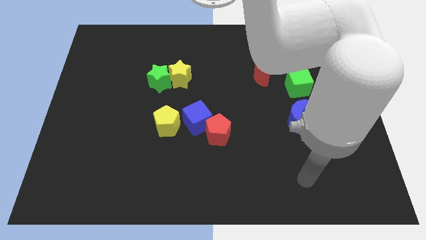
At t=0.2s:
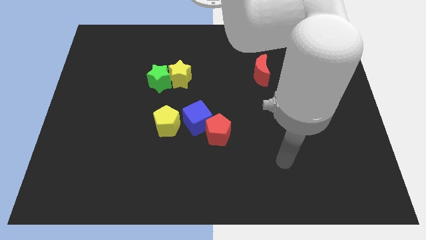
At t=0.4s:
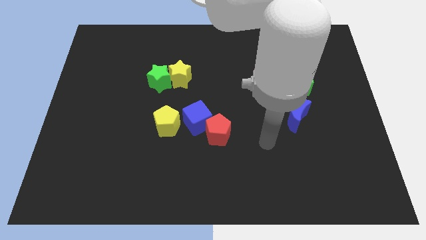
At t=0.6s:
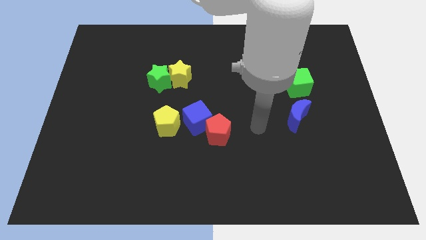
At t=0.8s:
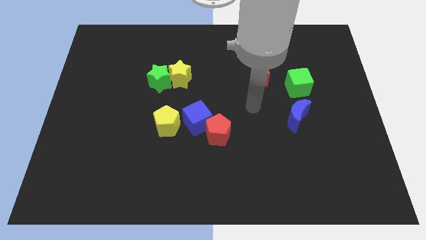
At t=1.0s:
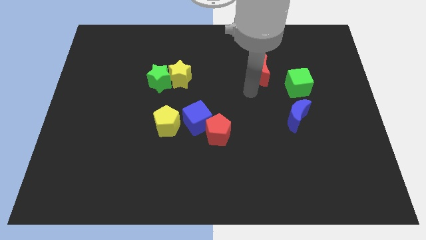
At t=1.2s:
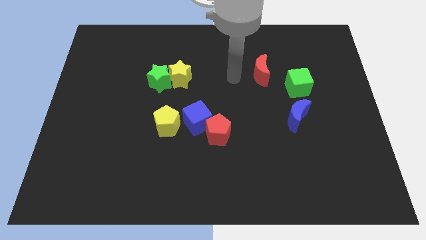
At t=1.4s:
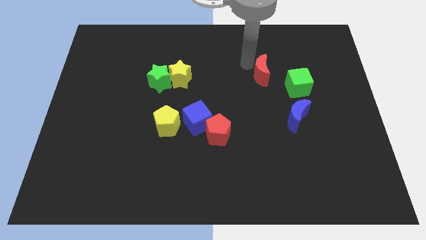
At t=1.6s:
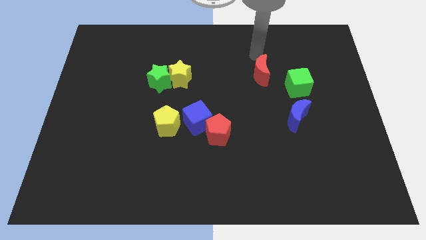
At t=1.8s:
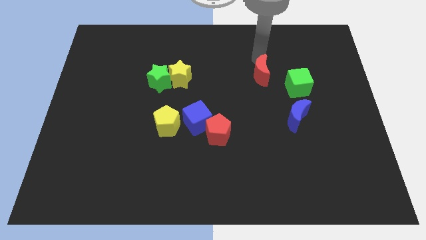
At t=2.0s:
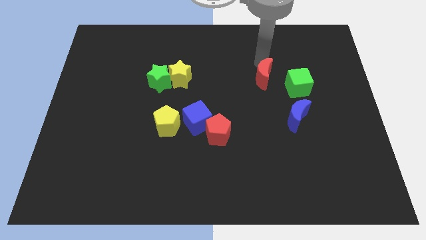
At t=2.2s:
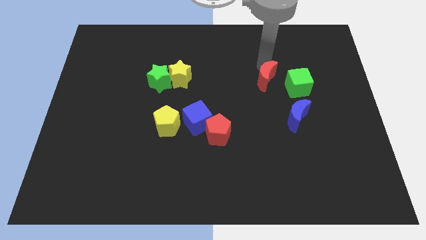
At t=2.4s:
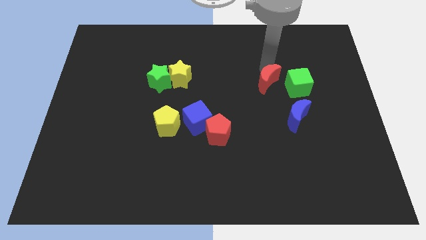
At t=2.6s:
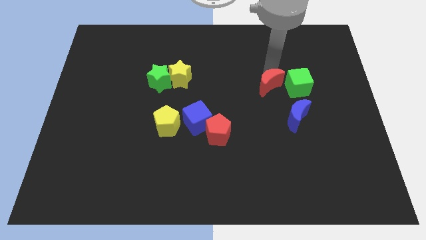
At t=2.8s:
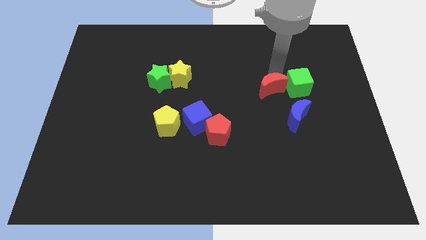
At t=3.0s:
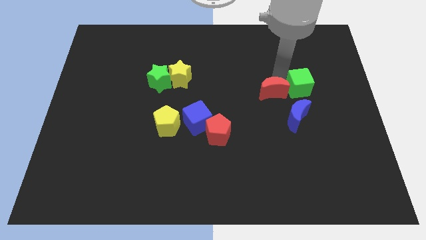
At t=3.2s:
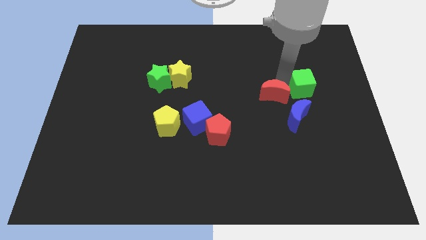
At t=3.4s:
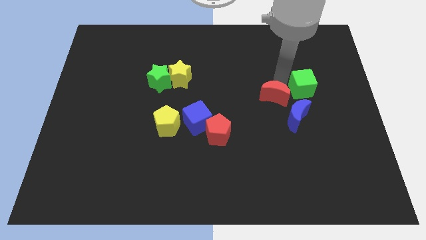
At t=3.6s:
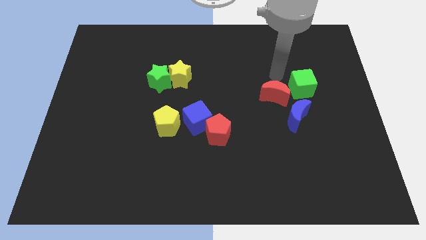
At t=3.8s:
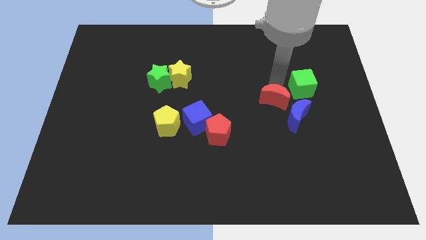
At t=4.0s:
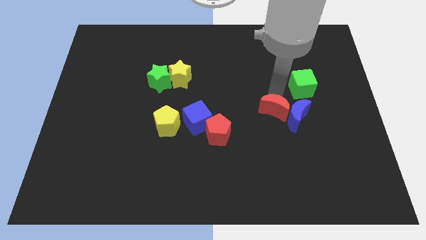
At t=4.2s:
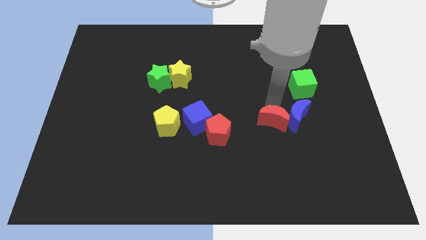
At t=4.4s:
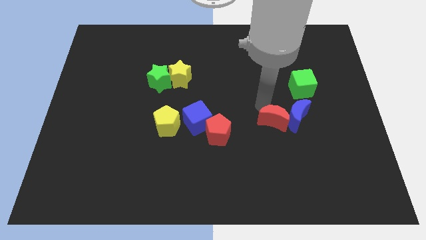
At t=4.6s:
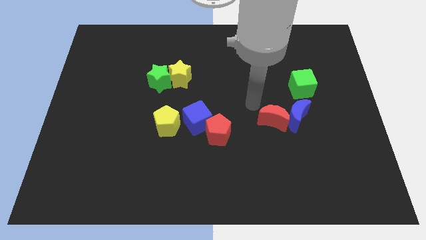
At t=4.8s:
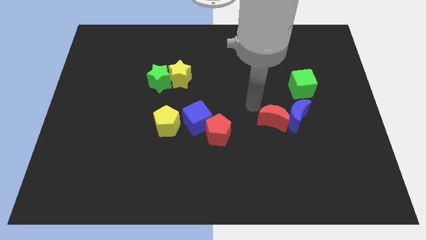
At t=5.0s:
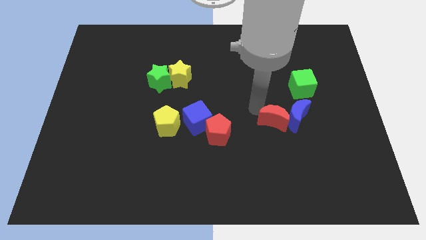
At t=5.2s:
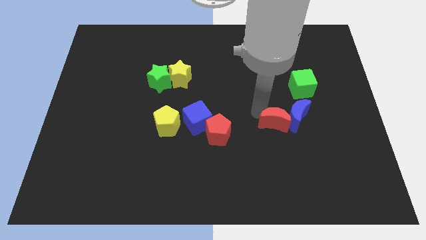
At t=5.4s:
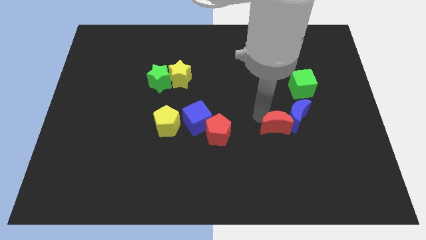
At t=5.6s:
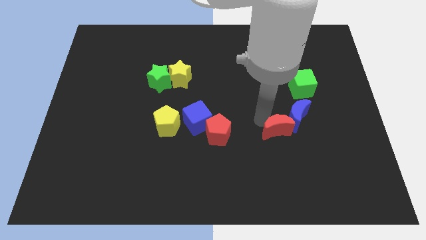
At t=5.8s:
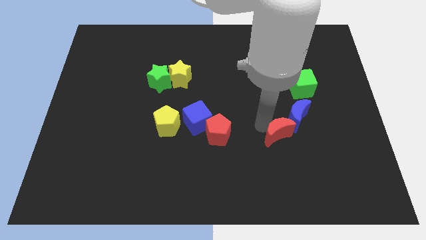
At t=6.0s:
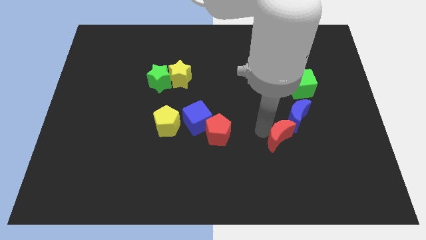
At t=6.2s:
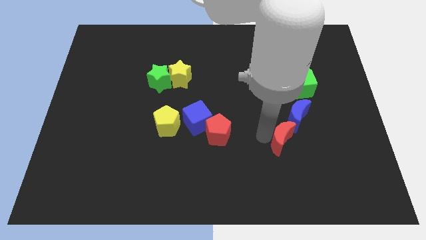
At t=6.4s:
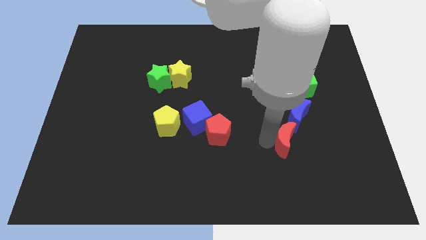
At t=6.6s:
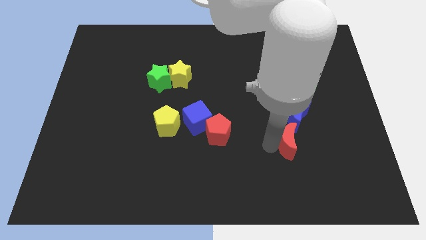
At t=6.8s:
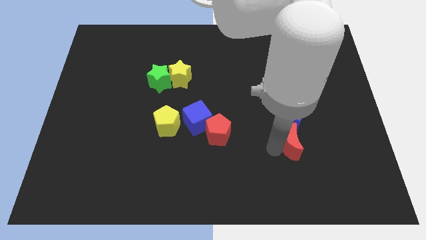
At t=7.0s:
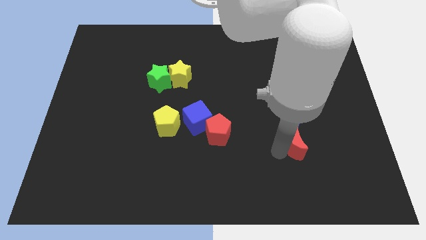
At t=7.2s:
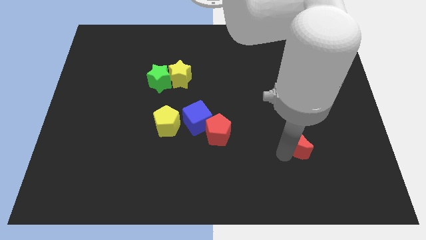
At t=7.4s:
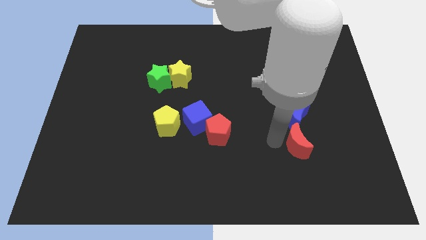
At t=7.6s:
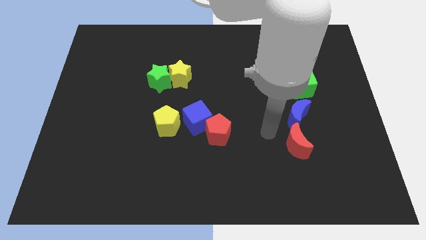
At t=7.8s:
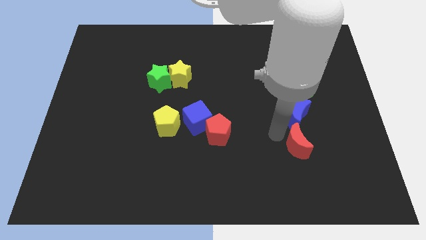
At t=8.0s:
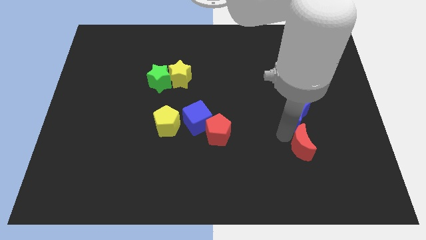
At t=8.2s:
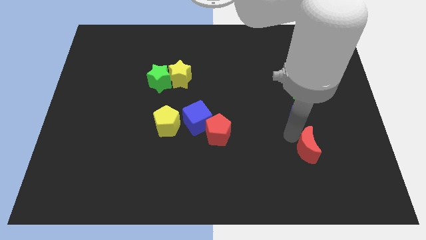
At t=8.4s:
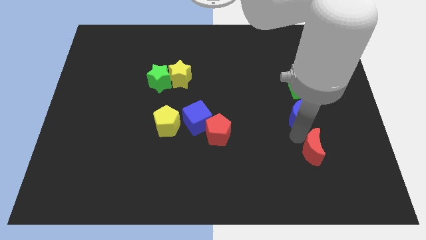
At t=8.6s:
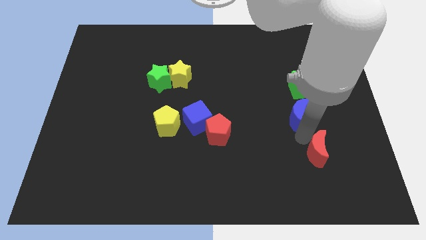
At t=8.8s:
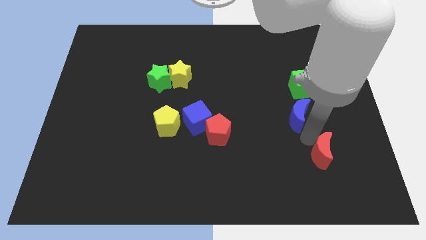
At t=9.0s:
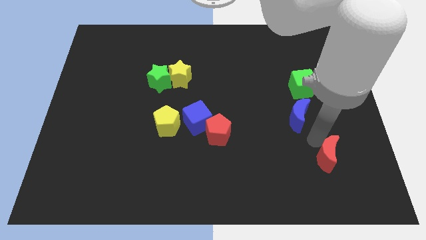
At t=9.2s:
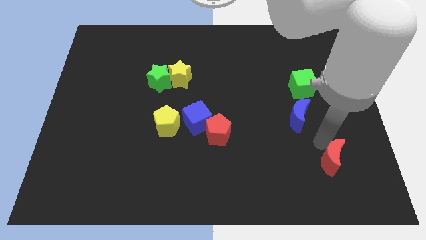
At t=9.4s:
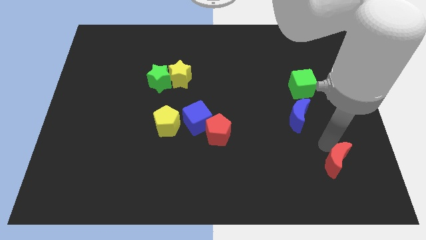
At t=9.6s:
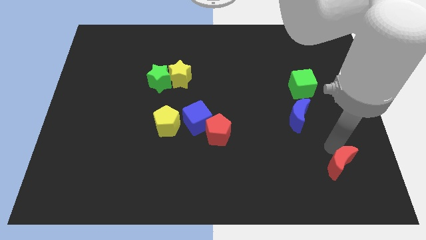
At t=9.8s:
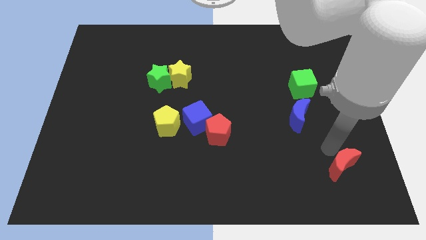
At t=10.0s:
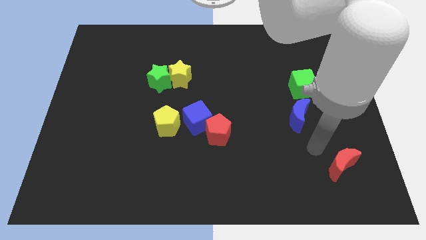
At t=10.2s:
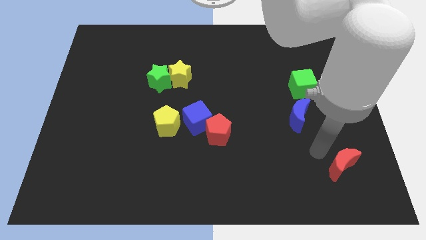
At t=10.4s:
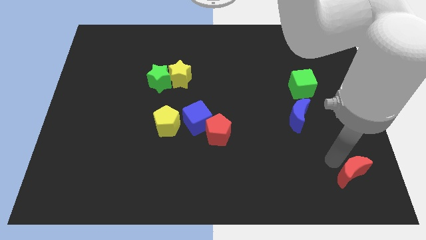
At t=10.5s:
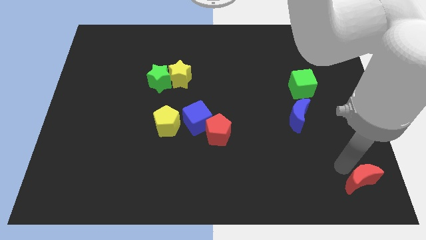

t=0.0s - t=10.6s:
push the red moon to the bottom right corner

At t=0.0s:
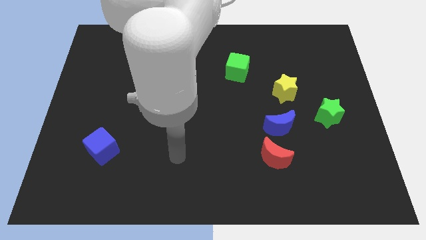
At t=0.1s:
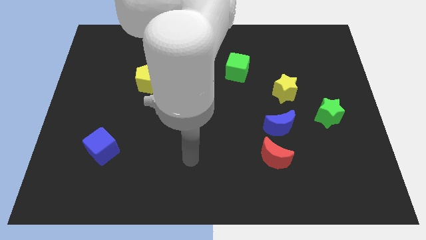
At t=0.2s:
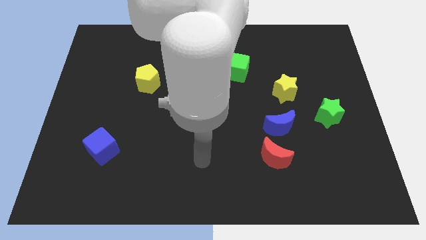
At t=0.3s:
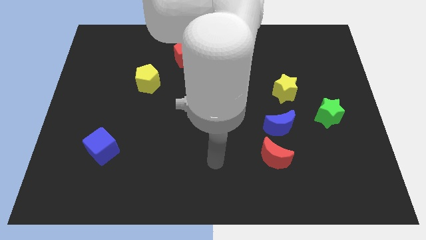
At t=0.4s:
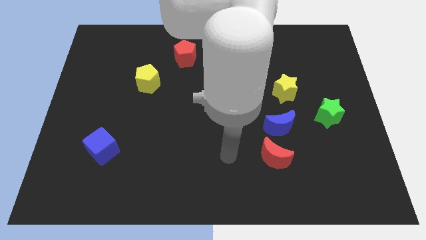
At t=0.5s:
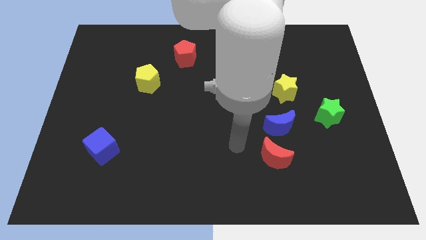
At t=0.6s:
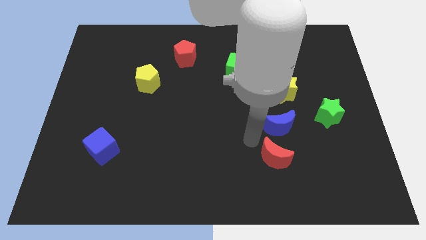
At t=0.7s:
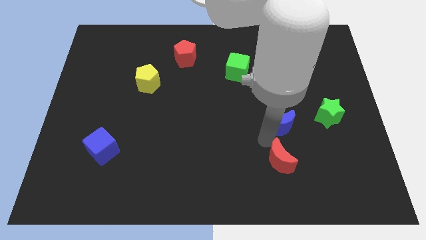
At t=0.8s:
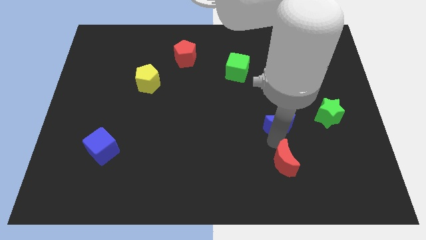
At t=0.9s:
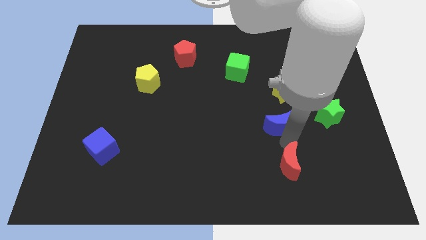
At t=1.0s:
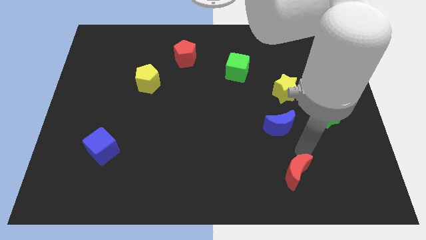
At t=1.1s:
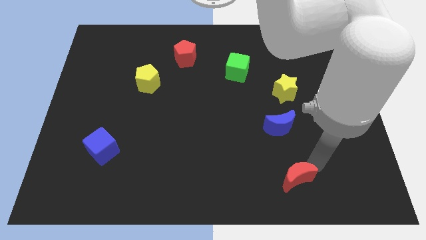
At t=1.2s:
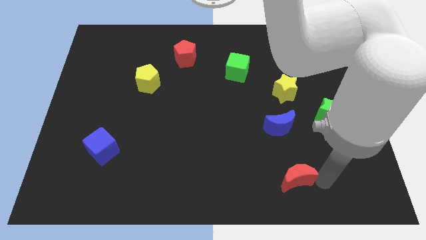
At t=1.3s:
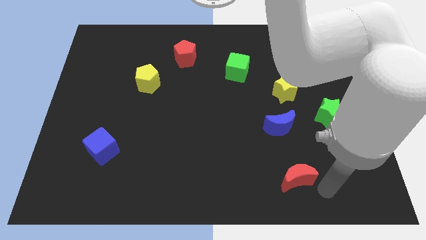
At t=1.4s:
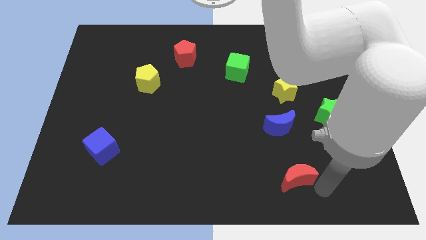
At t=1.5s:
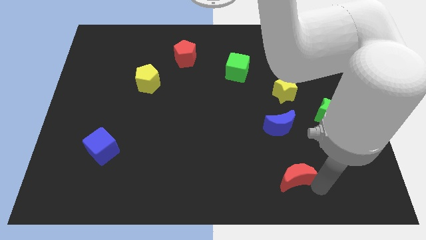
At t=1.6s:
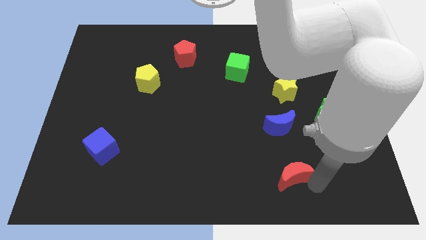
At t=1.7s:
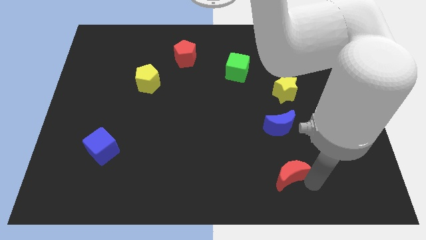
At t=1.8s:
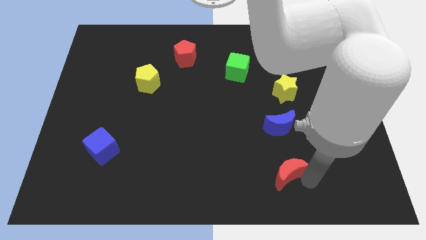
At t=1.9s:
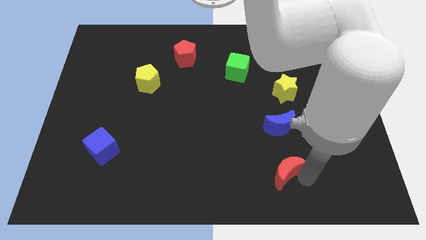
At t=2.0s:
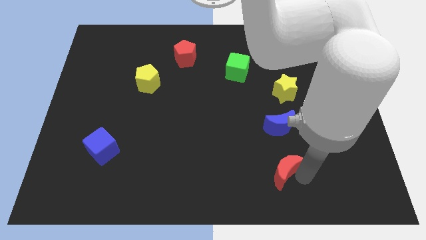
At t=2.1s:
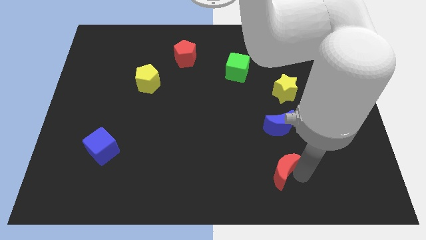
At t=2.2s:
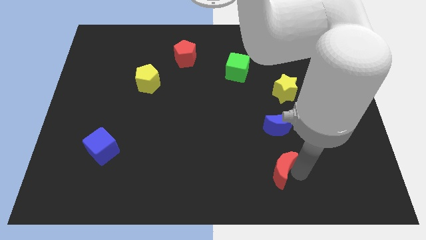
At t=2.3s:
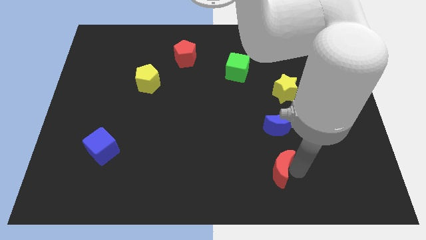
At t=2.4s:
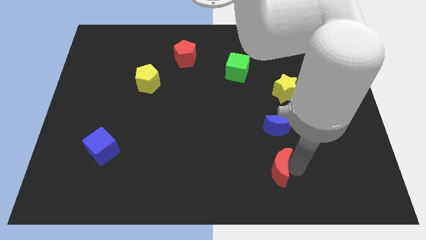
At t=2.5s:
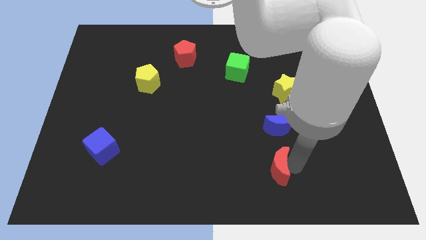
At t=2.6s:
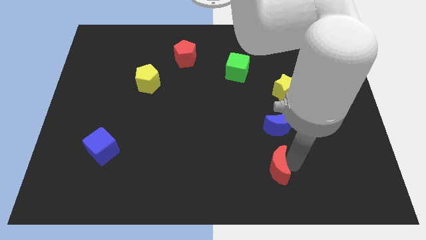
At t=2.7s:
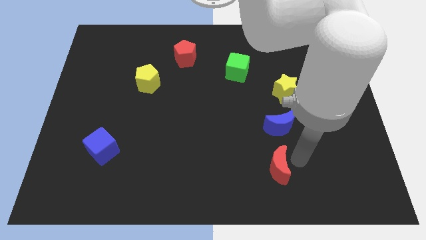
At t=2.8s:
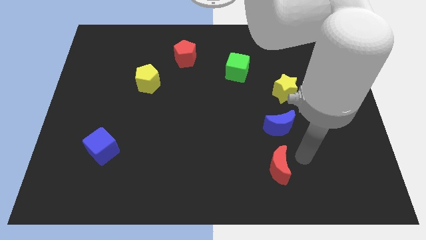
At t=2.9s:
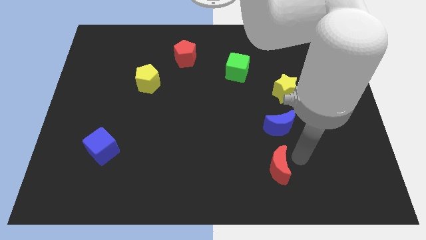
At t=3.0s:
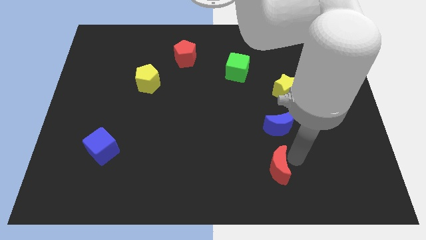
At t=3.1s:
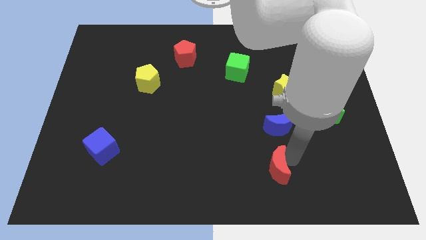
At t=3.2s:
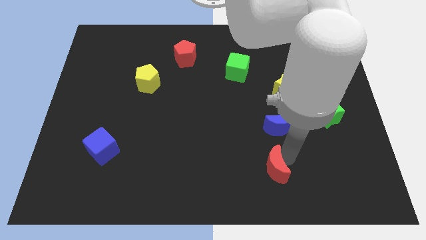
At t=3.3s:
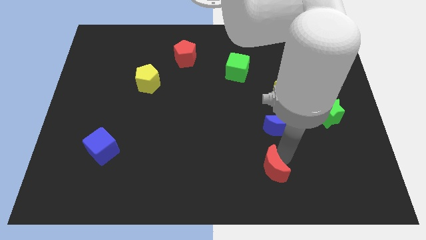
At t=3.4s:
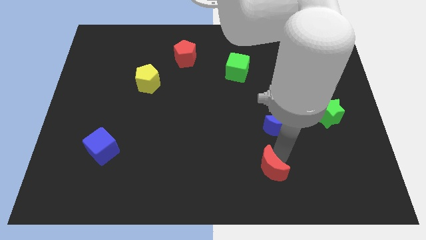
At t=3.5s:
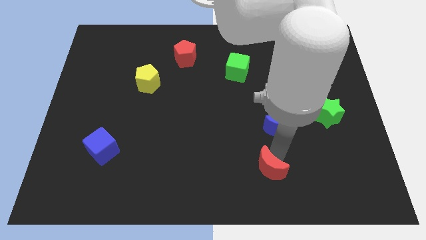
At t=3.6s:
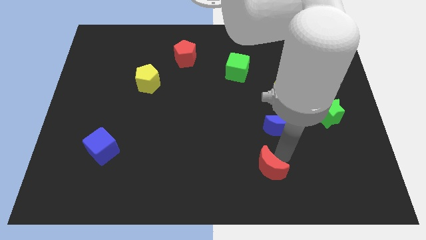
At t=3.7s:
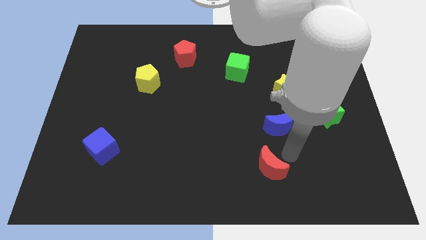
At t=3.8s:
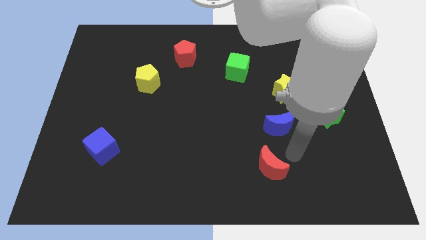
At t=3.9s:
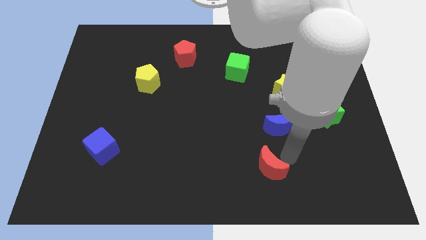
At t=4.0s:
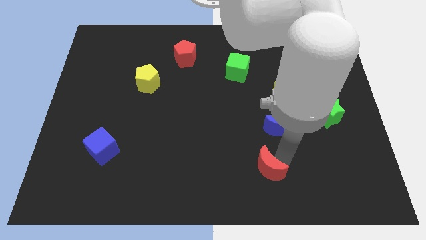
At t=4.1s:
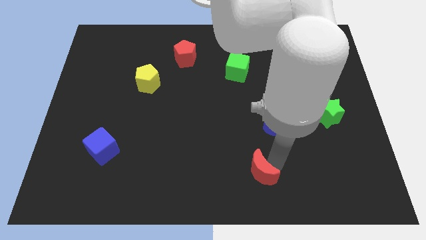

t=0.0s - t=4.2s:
put the red moon to the bottom
